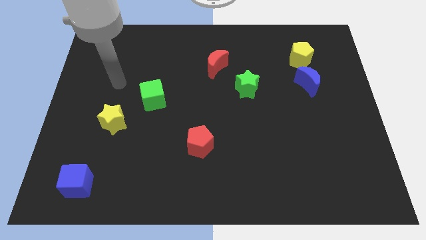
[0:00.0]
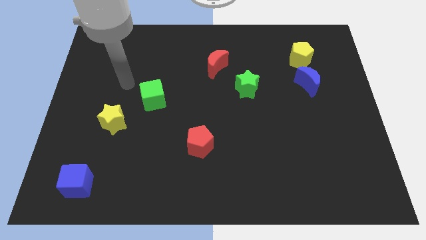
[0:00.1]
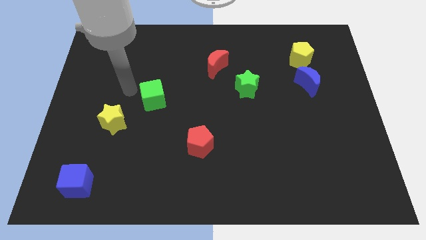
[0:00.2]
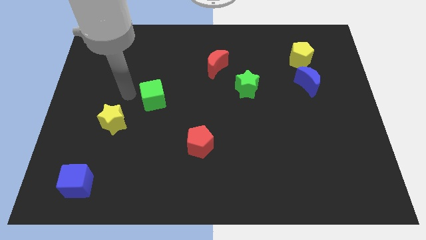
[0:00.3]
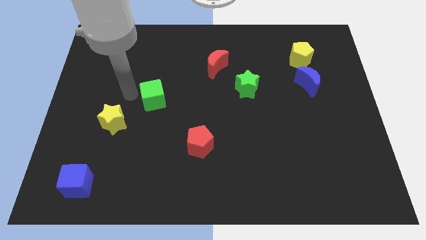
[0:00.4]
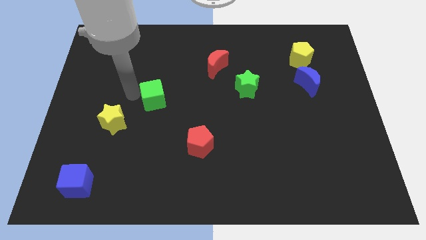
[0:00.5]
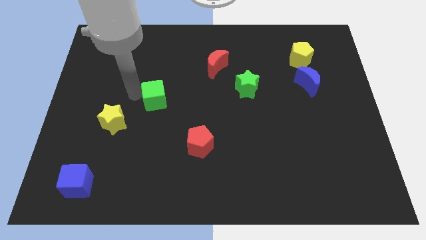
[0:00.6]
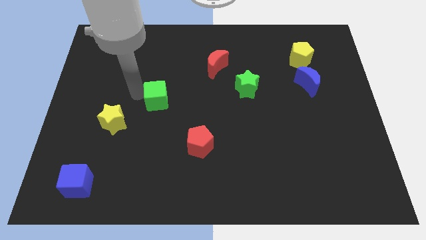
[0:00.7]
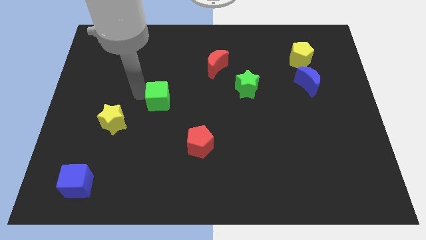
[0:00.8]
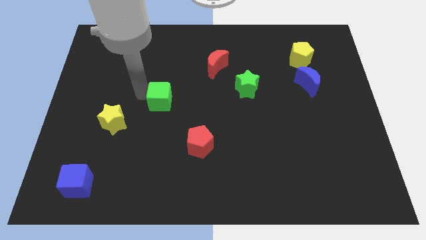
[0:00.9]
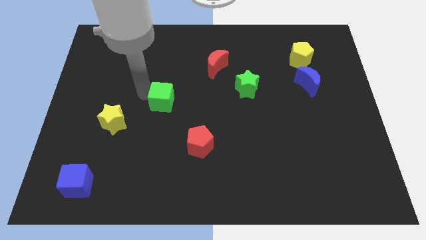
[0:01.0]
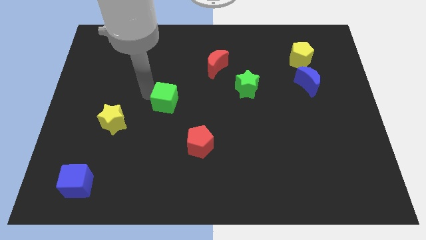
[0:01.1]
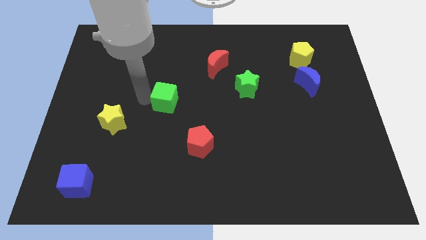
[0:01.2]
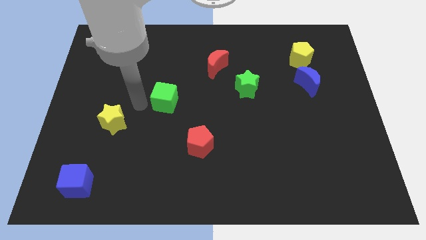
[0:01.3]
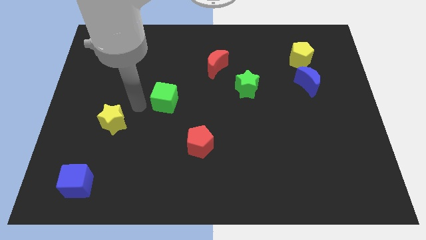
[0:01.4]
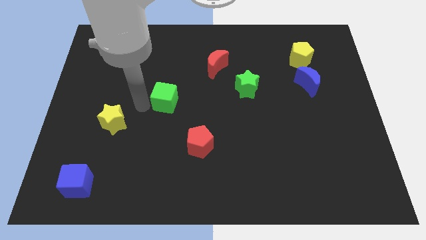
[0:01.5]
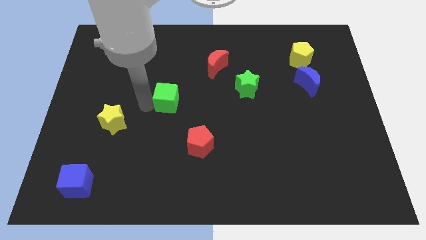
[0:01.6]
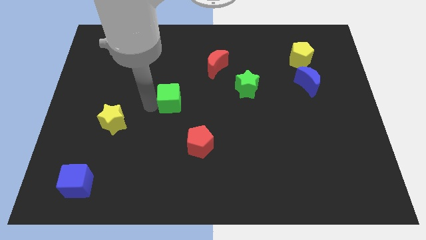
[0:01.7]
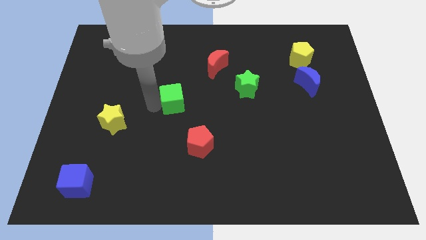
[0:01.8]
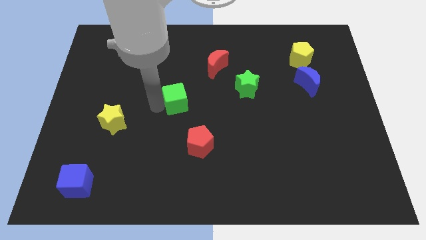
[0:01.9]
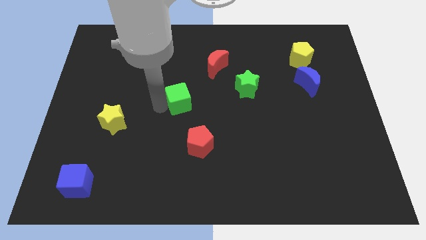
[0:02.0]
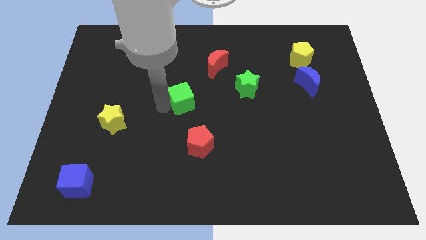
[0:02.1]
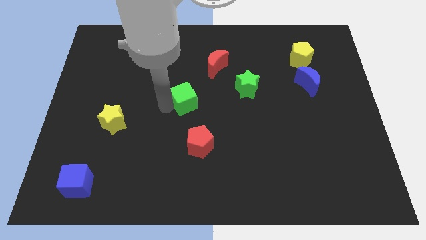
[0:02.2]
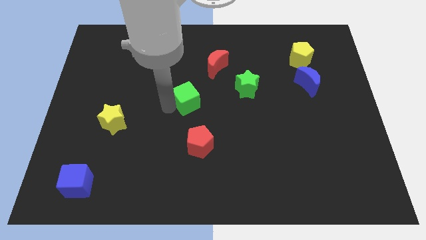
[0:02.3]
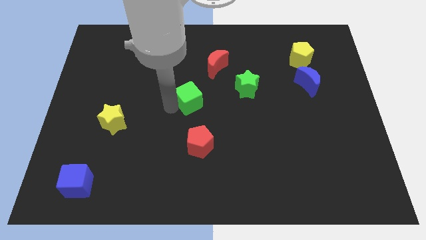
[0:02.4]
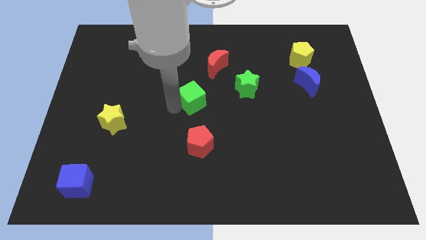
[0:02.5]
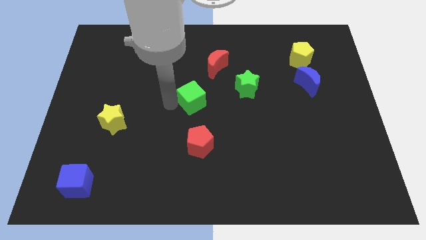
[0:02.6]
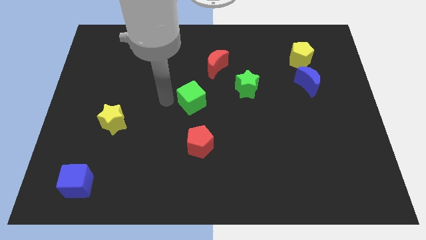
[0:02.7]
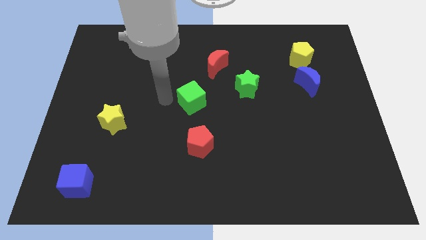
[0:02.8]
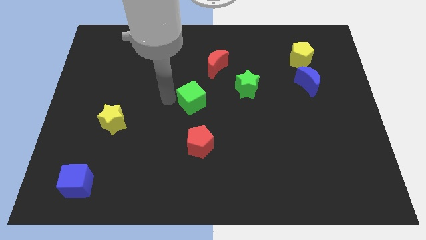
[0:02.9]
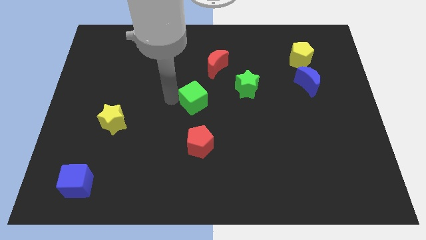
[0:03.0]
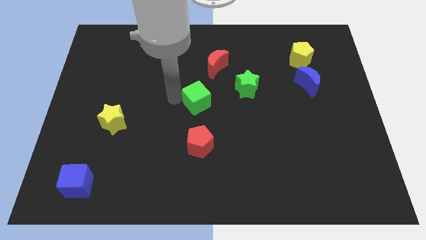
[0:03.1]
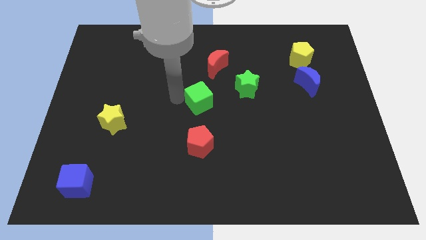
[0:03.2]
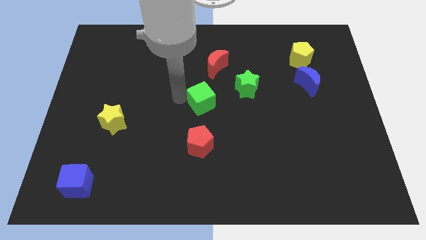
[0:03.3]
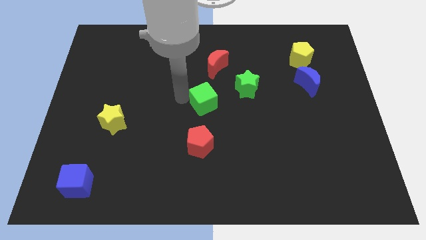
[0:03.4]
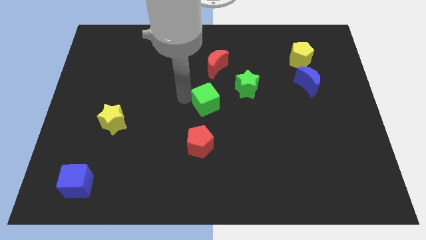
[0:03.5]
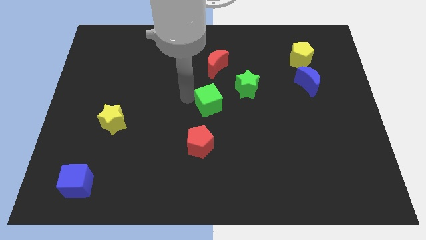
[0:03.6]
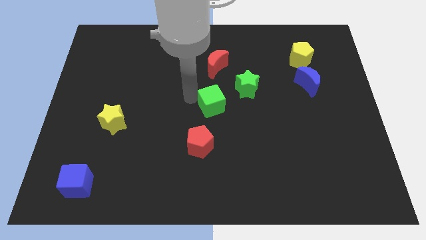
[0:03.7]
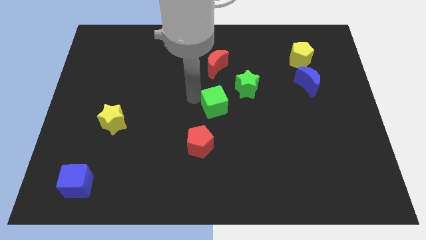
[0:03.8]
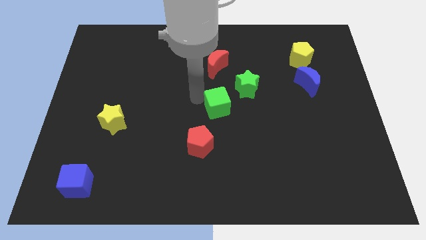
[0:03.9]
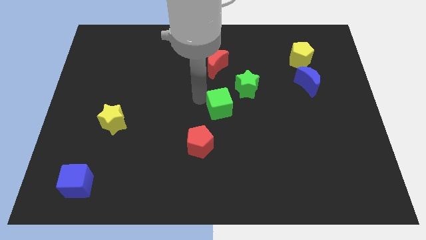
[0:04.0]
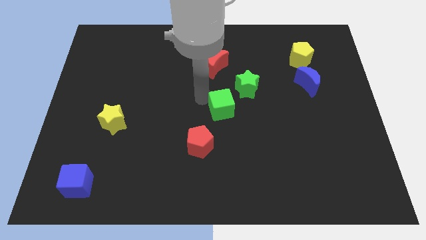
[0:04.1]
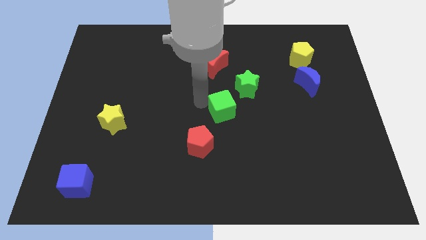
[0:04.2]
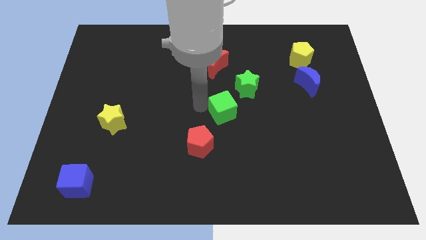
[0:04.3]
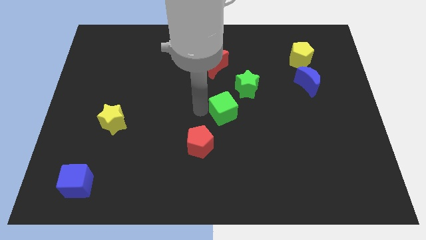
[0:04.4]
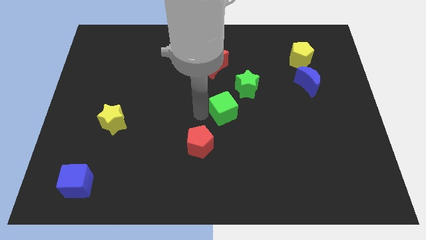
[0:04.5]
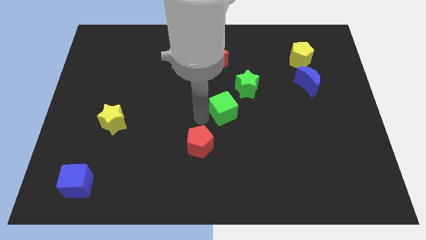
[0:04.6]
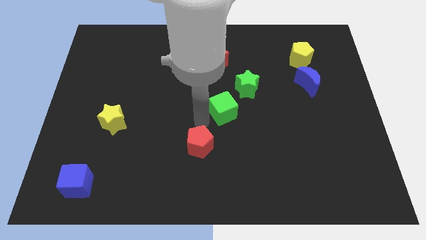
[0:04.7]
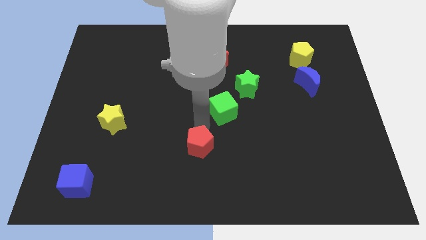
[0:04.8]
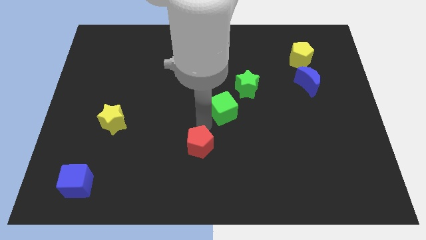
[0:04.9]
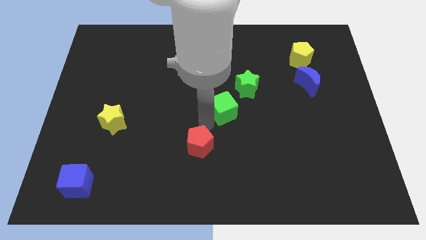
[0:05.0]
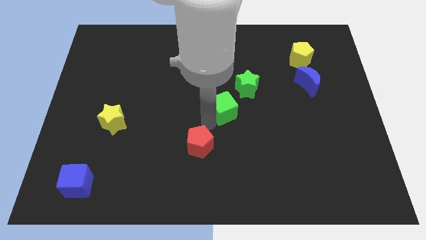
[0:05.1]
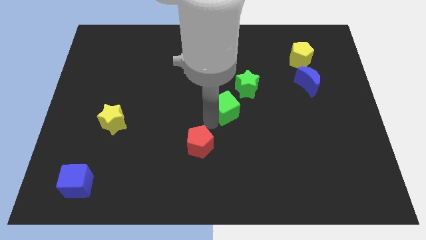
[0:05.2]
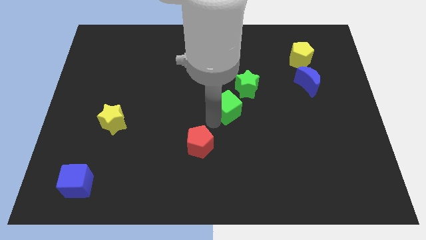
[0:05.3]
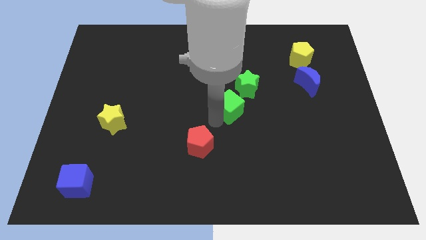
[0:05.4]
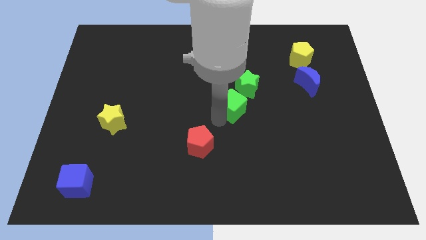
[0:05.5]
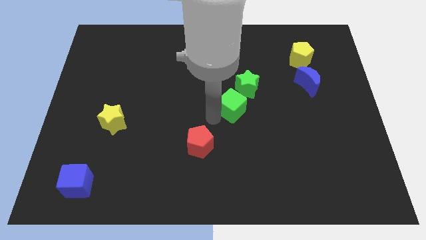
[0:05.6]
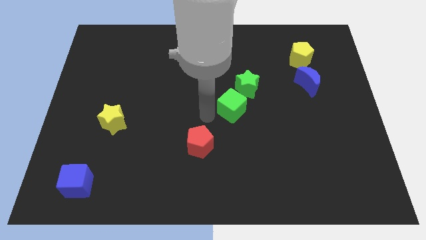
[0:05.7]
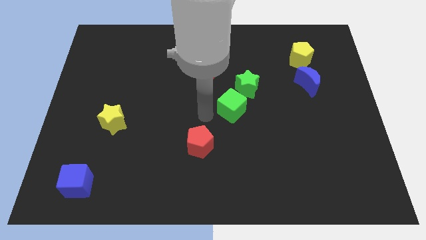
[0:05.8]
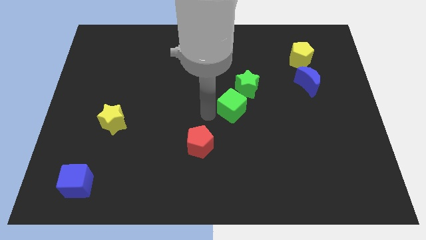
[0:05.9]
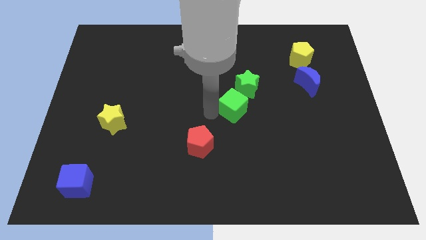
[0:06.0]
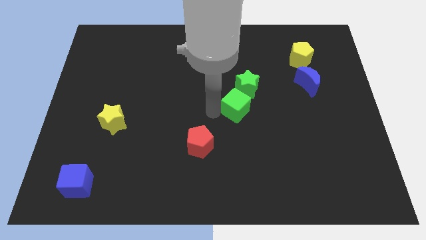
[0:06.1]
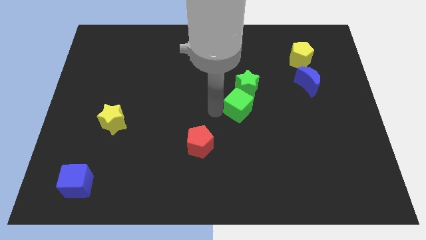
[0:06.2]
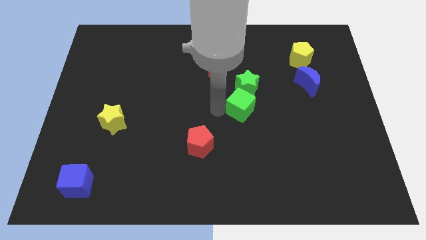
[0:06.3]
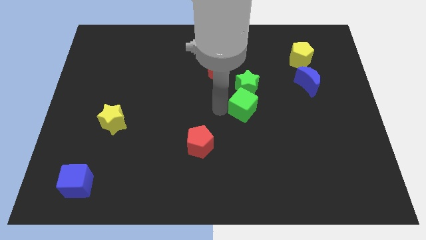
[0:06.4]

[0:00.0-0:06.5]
push the green cube diagonally down and to the right of the green star

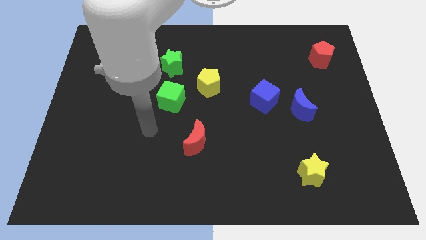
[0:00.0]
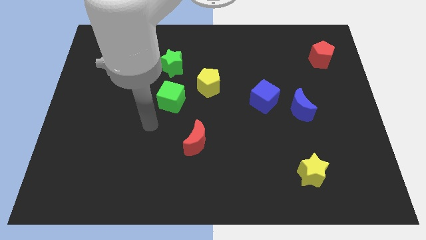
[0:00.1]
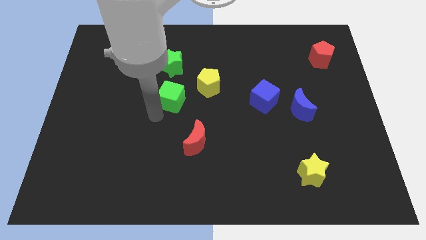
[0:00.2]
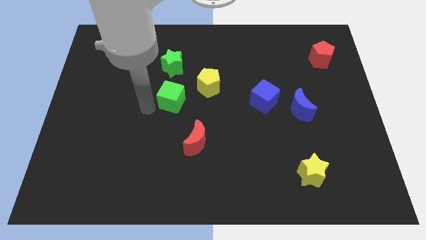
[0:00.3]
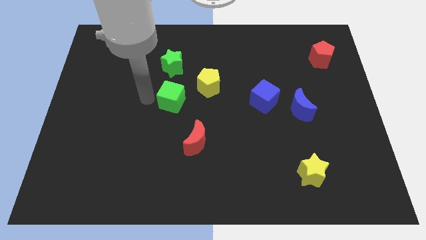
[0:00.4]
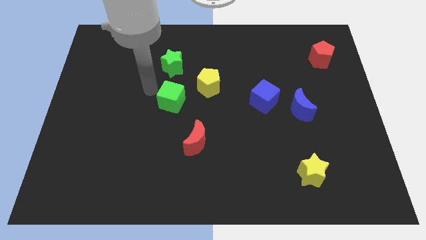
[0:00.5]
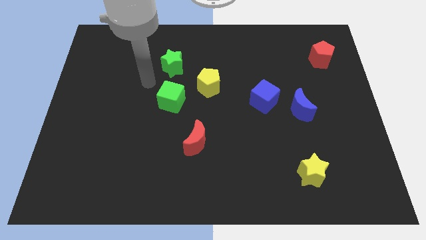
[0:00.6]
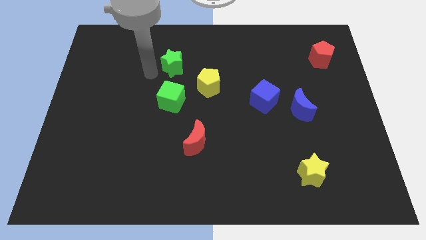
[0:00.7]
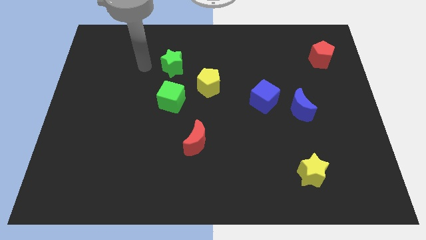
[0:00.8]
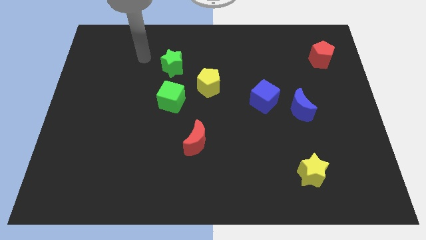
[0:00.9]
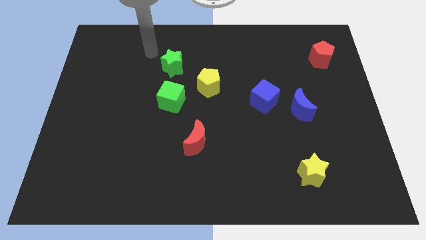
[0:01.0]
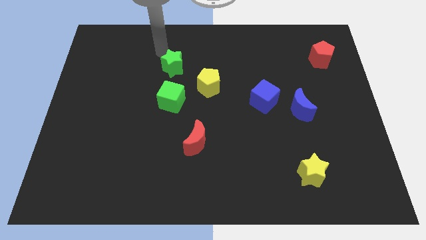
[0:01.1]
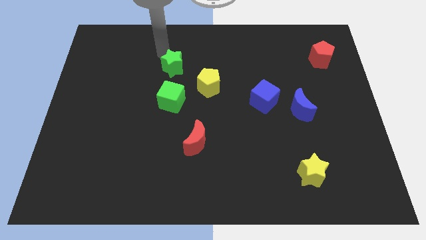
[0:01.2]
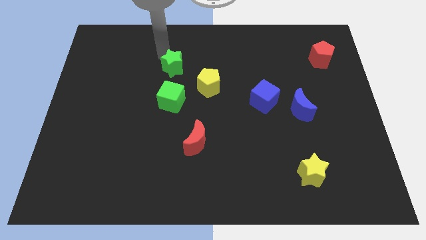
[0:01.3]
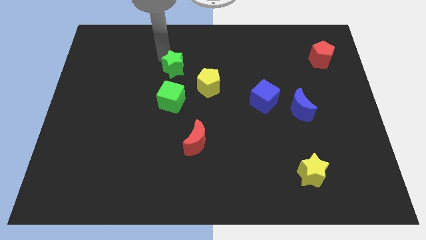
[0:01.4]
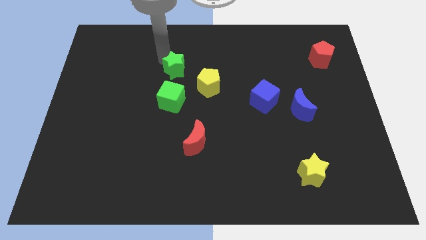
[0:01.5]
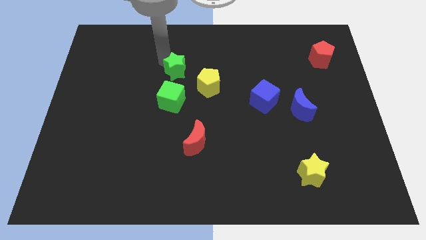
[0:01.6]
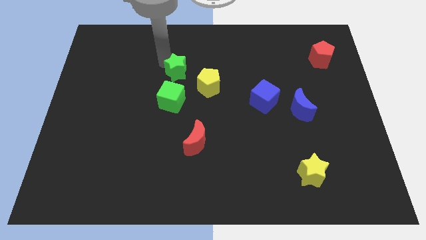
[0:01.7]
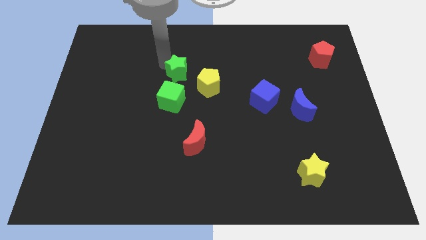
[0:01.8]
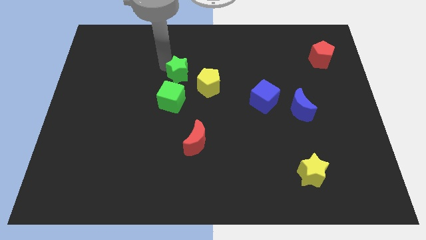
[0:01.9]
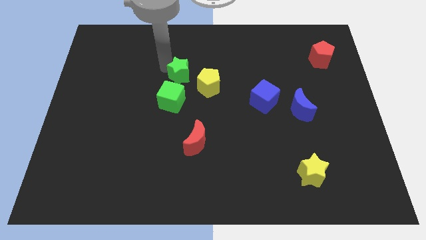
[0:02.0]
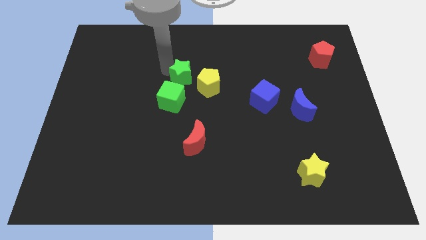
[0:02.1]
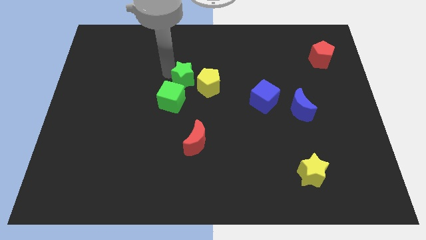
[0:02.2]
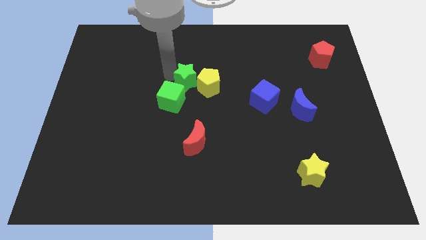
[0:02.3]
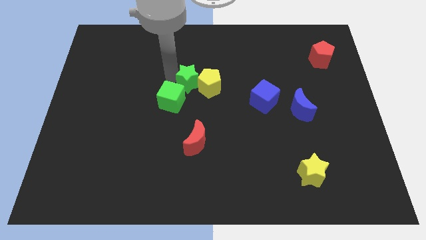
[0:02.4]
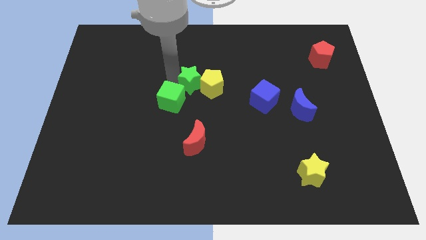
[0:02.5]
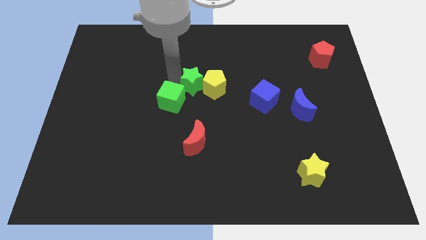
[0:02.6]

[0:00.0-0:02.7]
push the green star to the right side of the green cube
